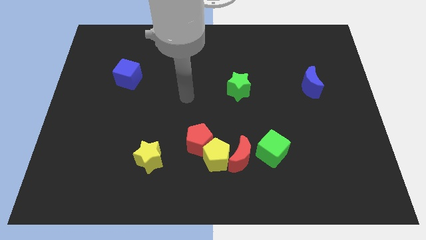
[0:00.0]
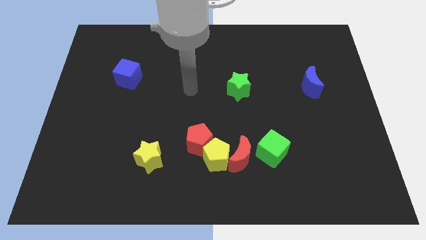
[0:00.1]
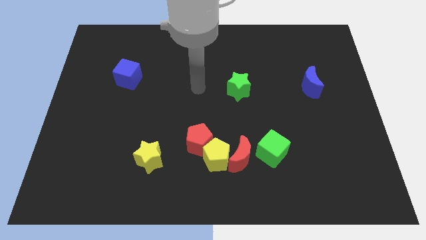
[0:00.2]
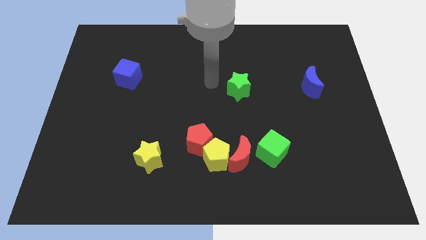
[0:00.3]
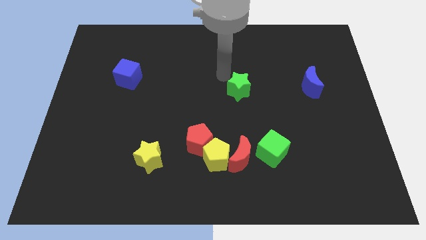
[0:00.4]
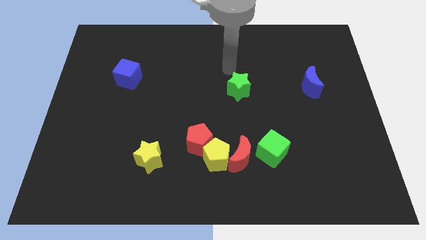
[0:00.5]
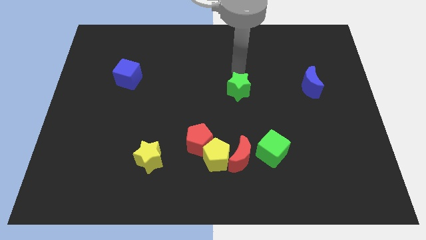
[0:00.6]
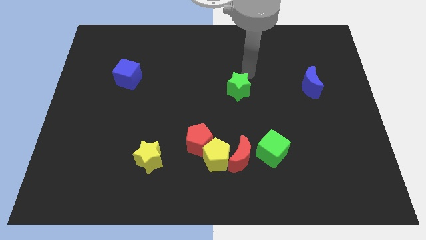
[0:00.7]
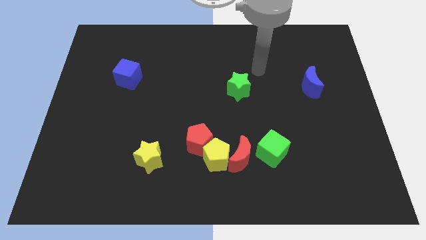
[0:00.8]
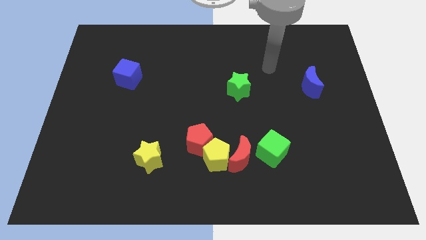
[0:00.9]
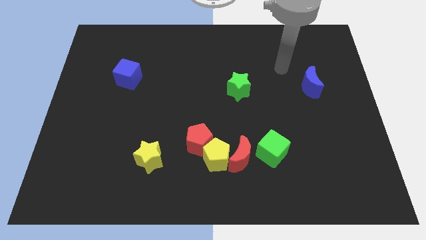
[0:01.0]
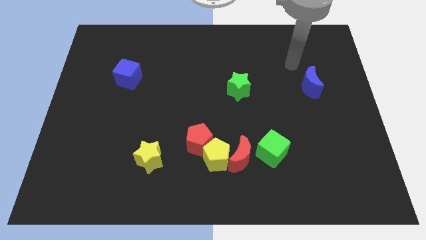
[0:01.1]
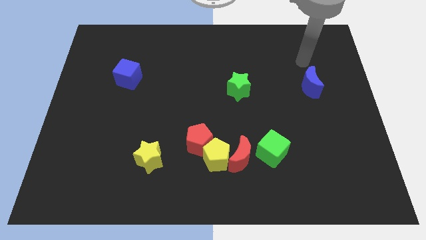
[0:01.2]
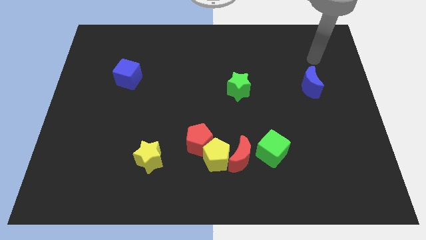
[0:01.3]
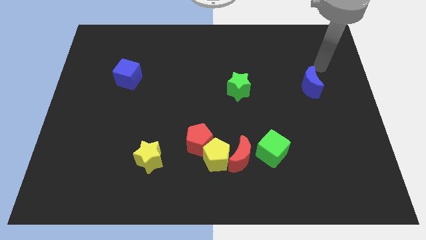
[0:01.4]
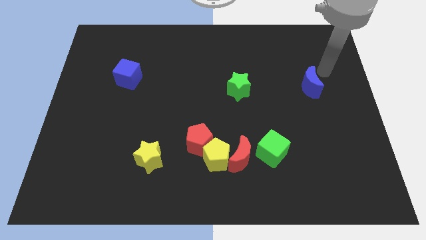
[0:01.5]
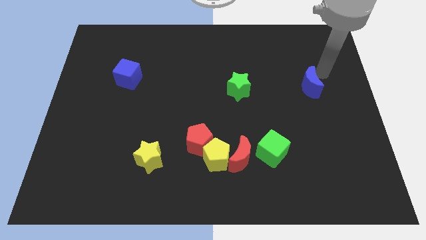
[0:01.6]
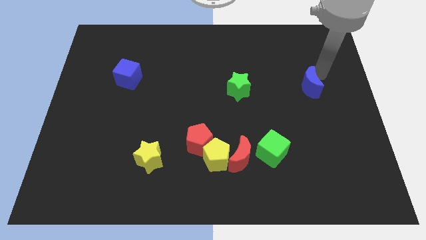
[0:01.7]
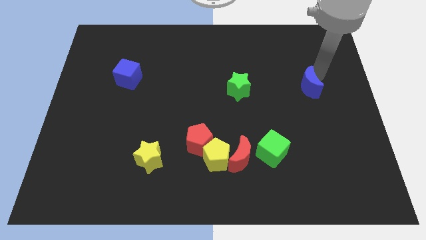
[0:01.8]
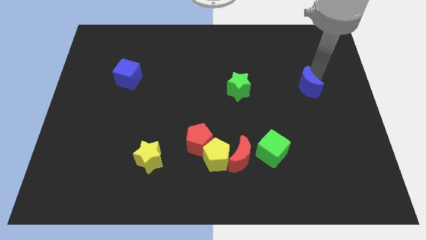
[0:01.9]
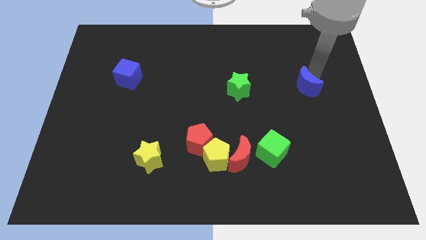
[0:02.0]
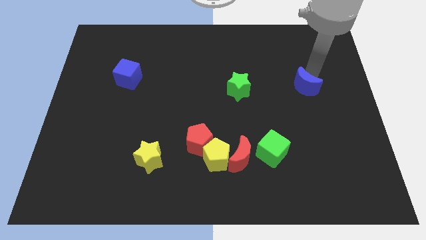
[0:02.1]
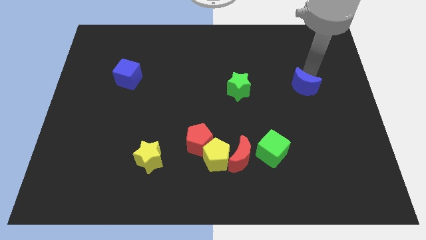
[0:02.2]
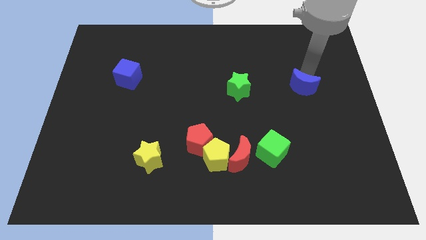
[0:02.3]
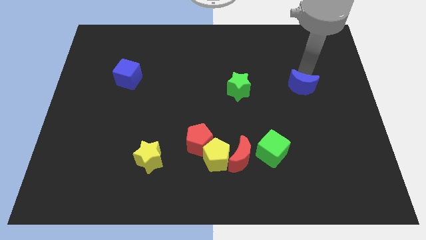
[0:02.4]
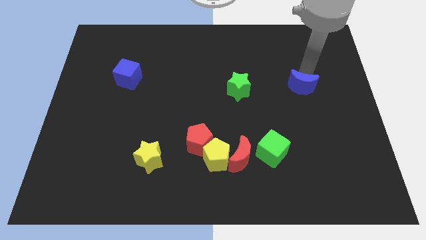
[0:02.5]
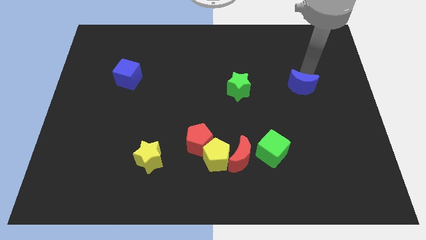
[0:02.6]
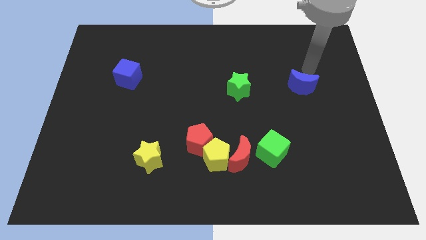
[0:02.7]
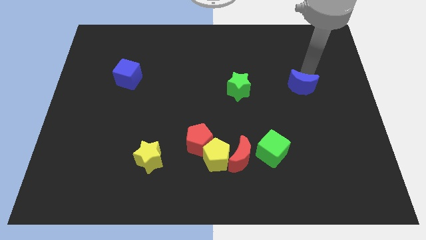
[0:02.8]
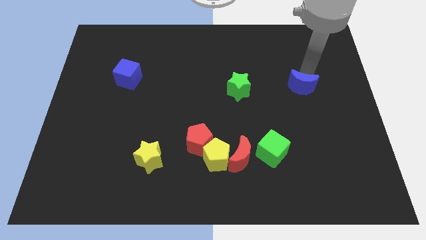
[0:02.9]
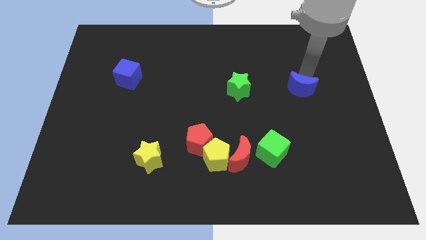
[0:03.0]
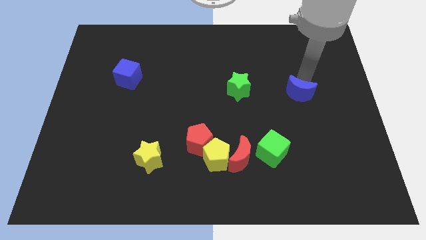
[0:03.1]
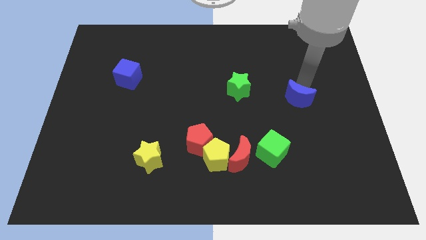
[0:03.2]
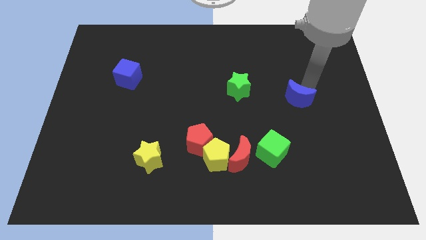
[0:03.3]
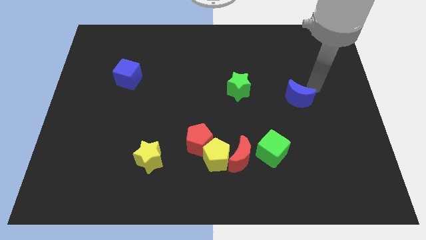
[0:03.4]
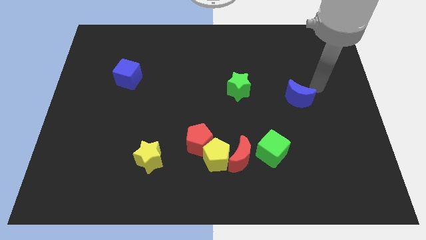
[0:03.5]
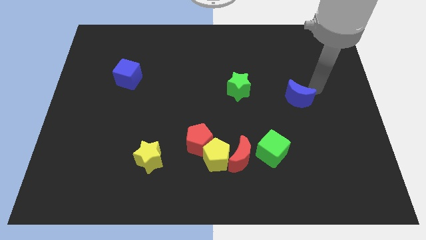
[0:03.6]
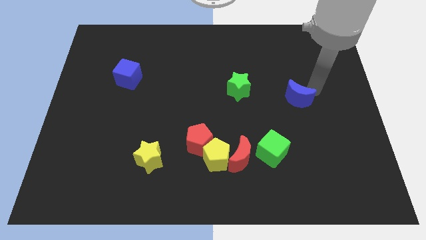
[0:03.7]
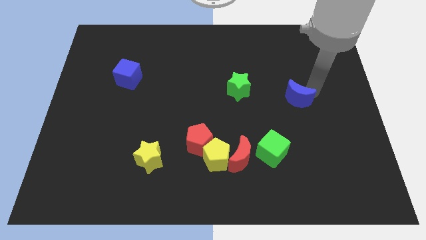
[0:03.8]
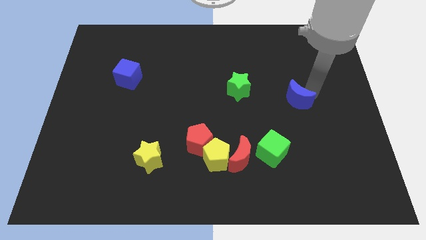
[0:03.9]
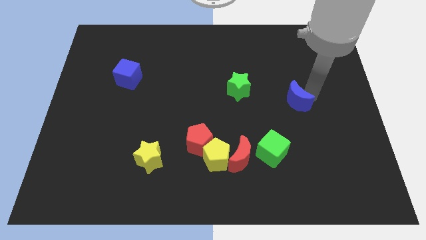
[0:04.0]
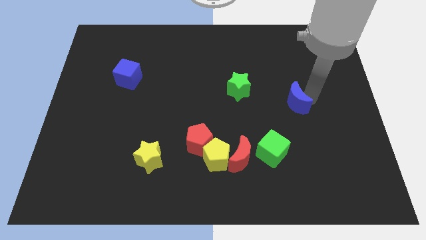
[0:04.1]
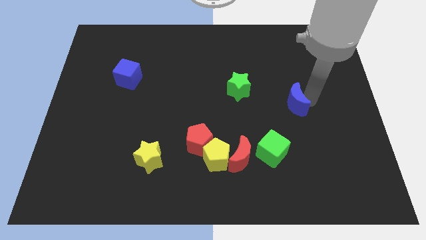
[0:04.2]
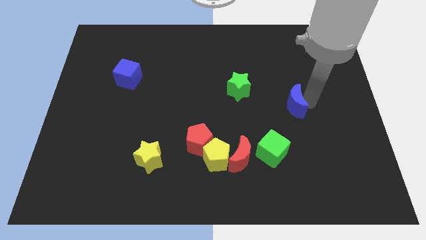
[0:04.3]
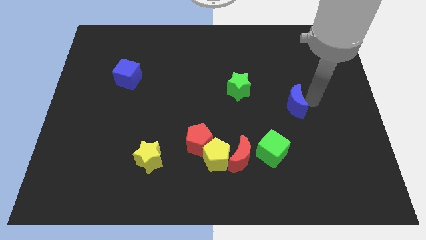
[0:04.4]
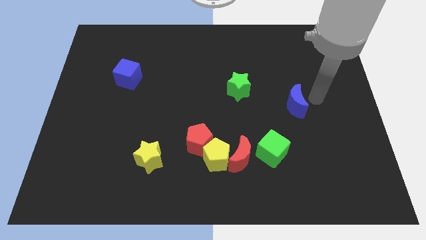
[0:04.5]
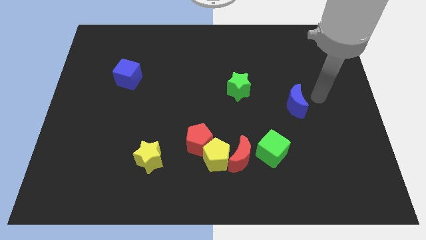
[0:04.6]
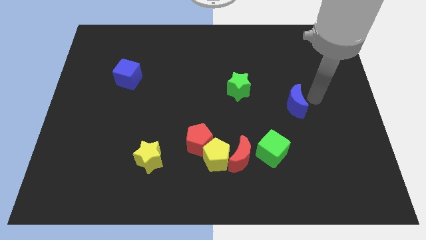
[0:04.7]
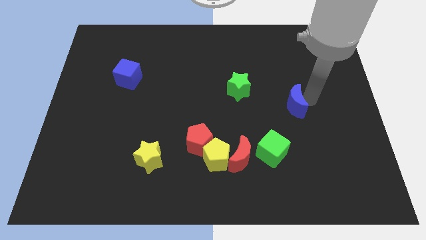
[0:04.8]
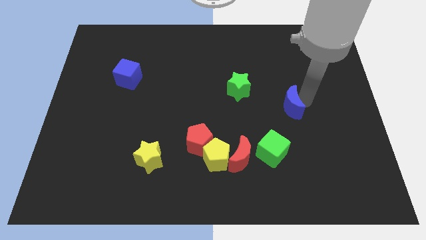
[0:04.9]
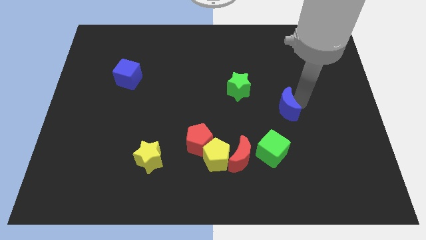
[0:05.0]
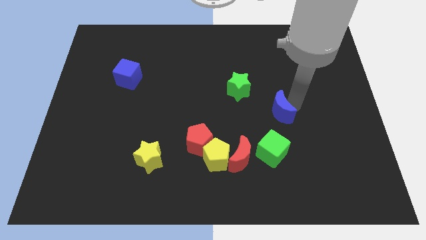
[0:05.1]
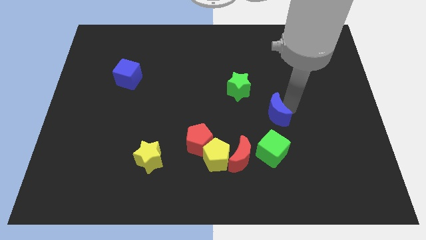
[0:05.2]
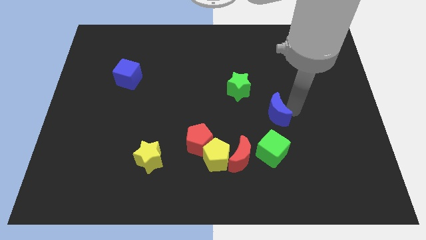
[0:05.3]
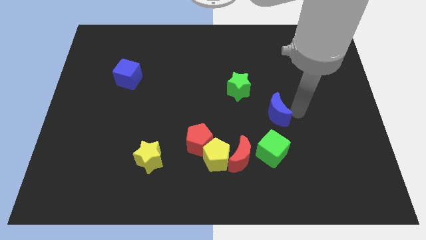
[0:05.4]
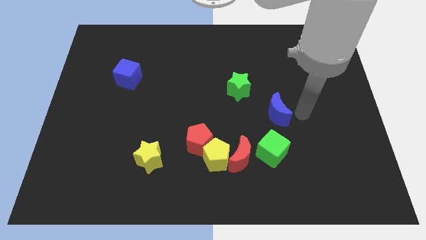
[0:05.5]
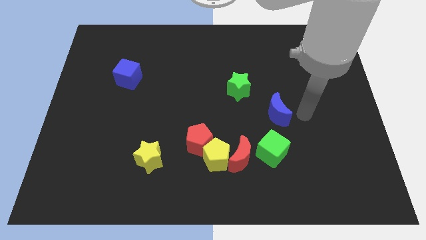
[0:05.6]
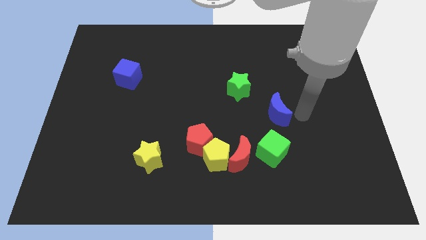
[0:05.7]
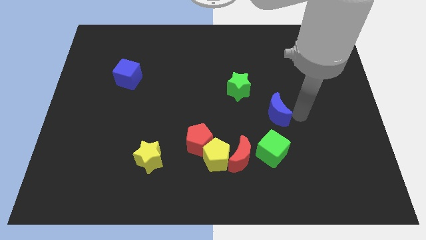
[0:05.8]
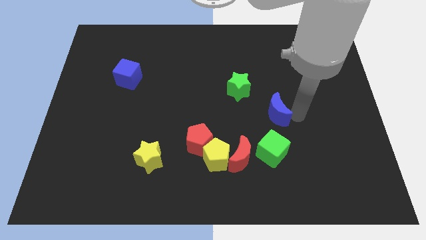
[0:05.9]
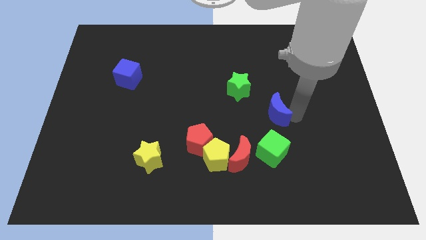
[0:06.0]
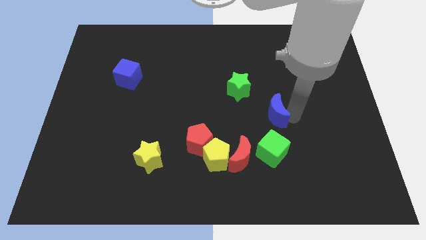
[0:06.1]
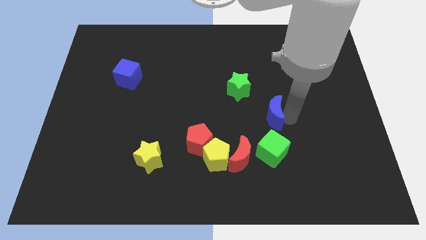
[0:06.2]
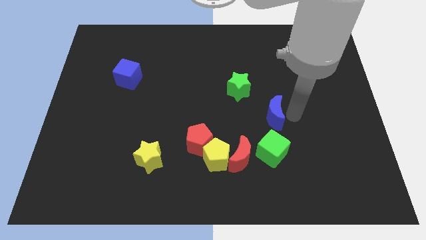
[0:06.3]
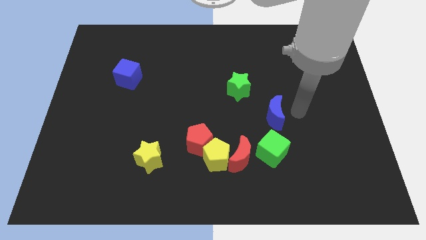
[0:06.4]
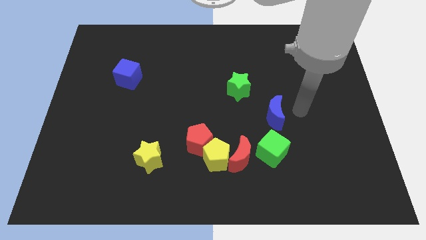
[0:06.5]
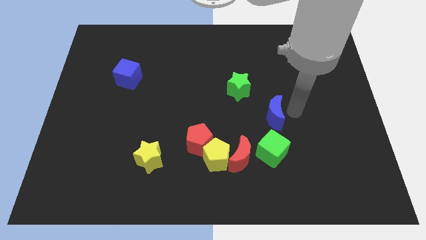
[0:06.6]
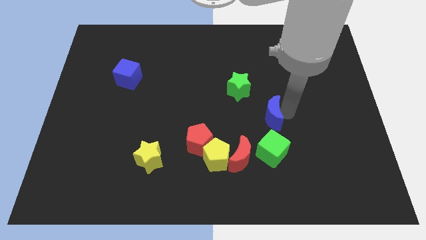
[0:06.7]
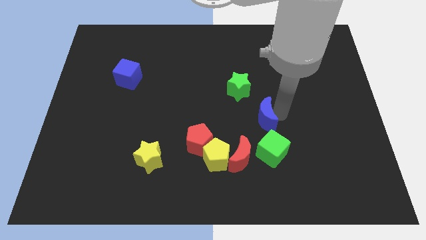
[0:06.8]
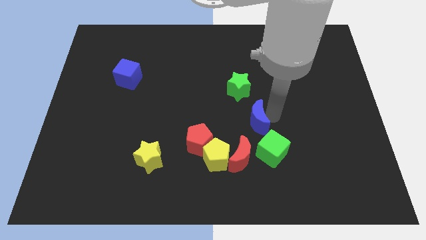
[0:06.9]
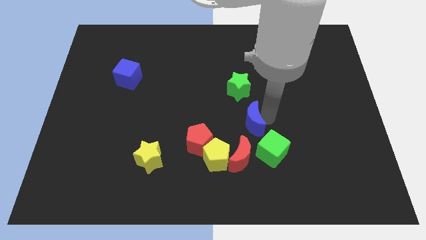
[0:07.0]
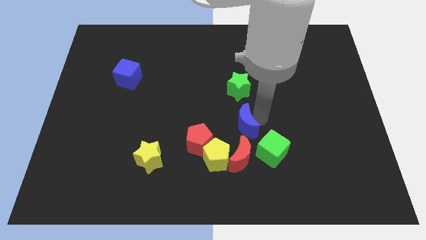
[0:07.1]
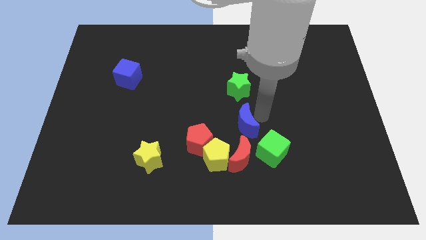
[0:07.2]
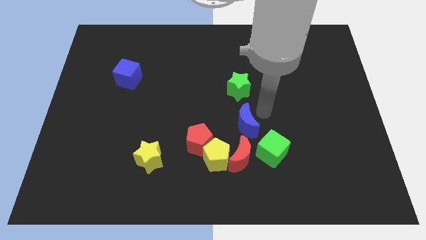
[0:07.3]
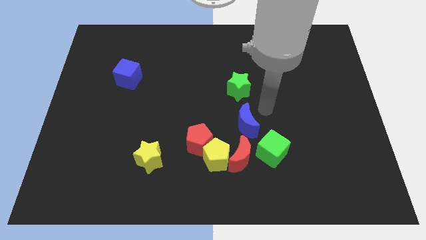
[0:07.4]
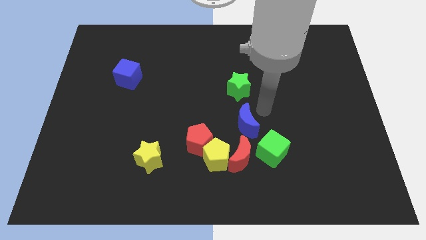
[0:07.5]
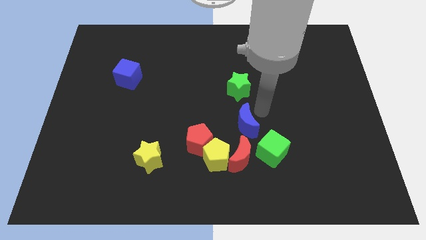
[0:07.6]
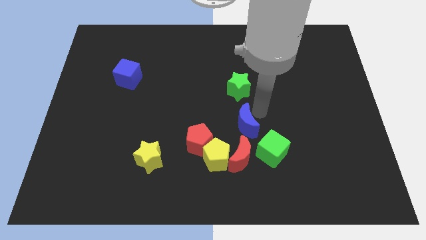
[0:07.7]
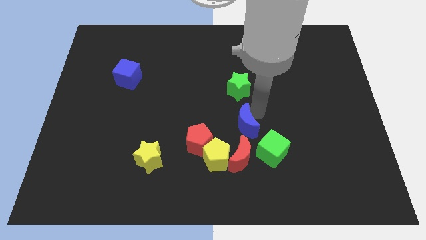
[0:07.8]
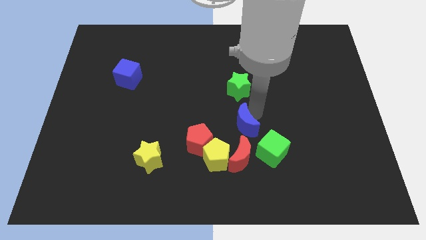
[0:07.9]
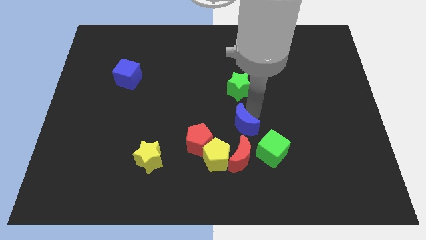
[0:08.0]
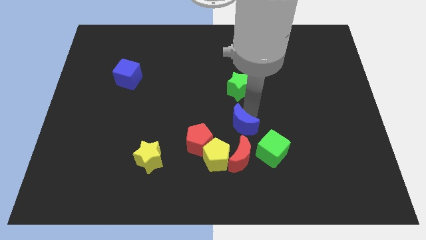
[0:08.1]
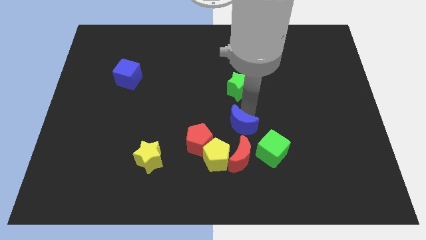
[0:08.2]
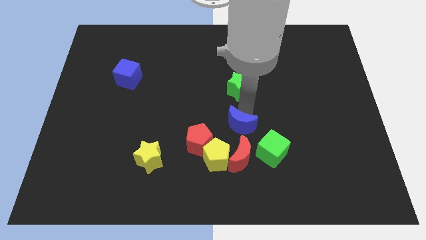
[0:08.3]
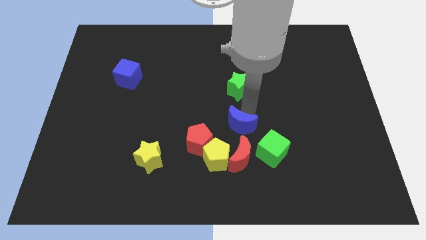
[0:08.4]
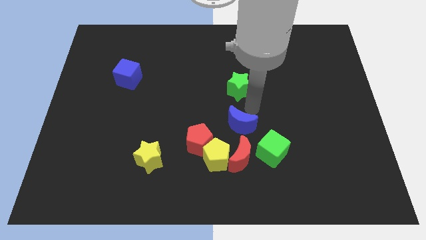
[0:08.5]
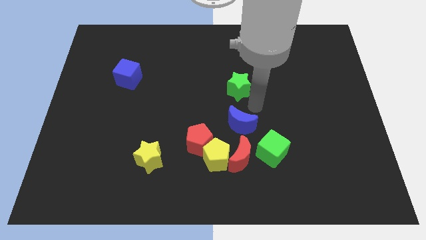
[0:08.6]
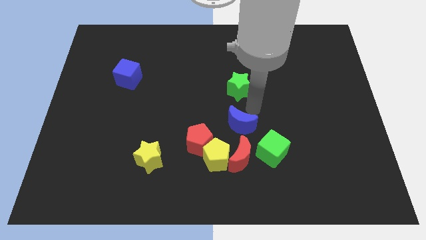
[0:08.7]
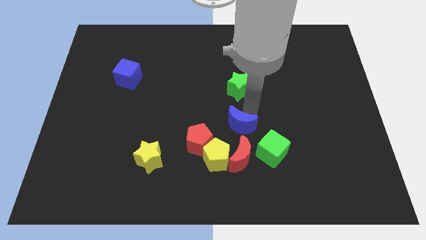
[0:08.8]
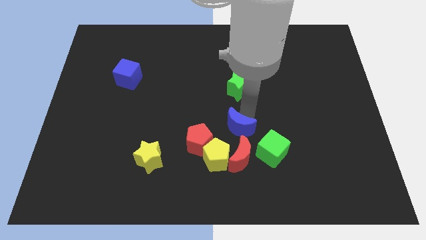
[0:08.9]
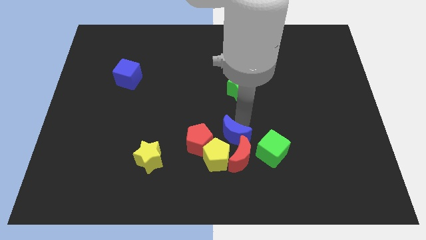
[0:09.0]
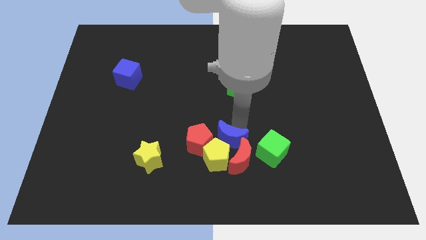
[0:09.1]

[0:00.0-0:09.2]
move the blue moon close to the yellow pentagon
